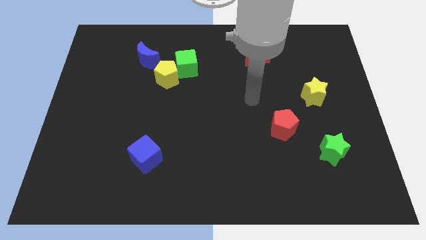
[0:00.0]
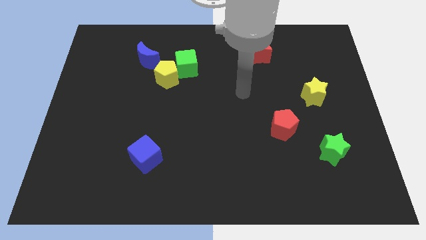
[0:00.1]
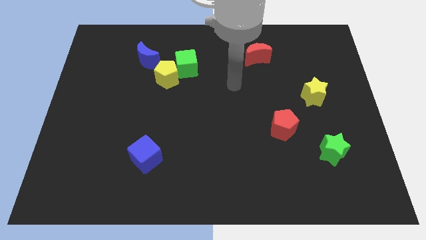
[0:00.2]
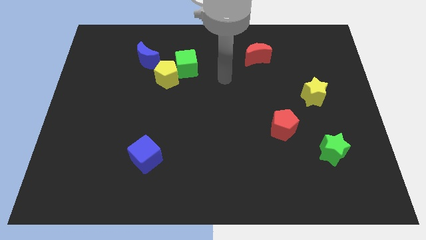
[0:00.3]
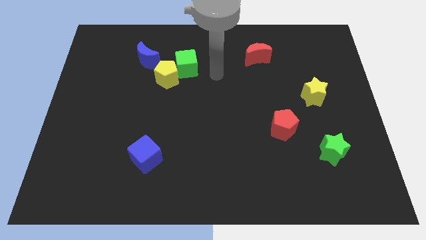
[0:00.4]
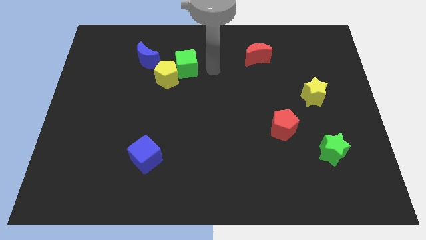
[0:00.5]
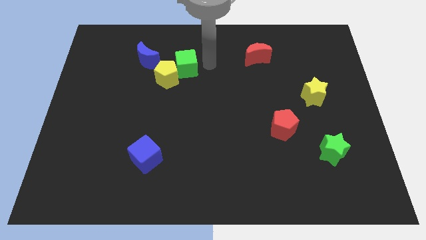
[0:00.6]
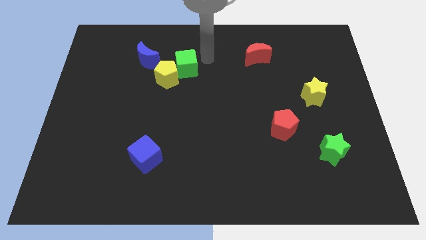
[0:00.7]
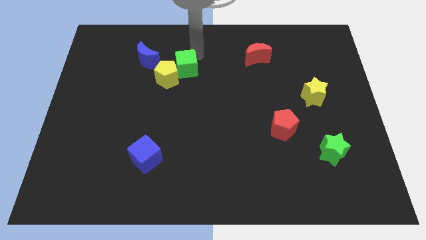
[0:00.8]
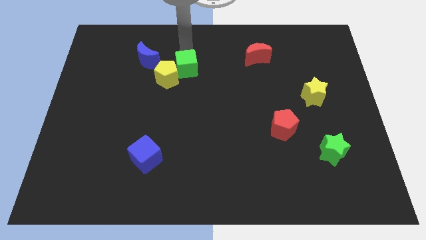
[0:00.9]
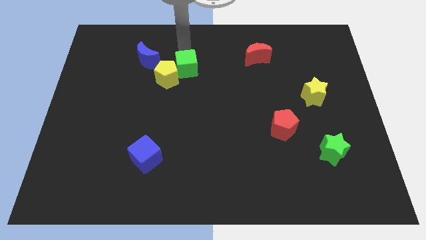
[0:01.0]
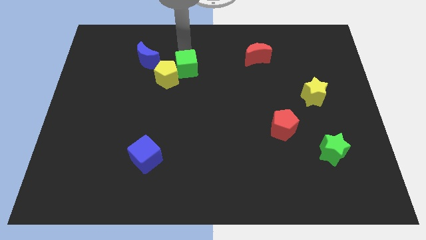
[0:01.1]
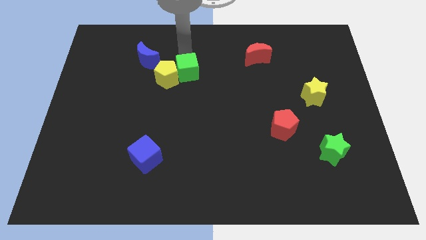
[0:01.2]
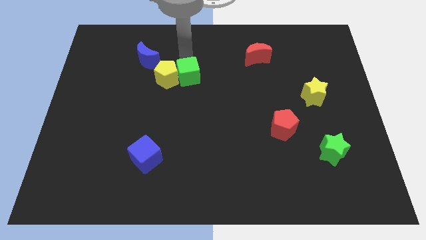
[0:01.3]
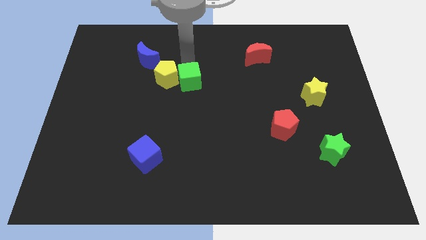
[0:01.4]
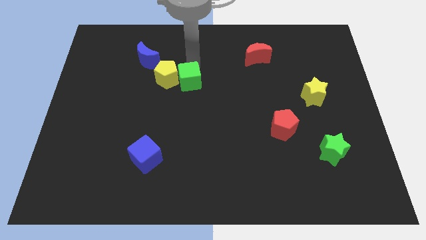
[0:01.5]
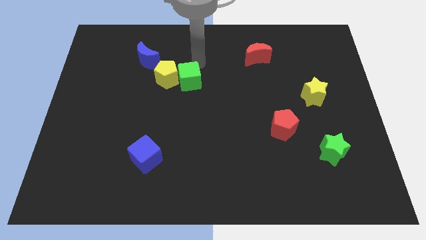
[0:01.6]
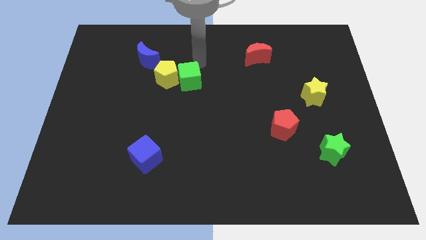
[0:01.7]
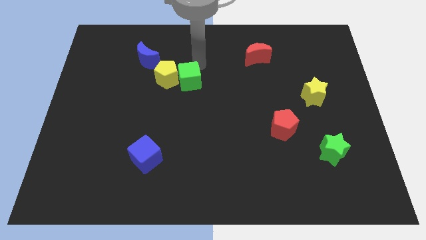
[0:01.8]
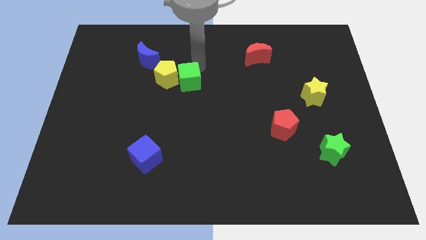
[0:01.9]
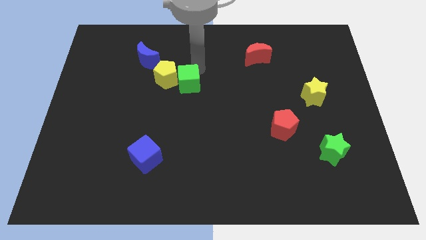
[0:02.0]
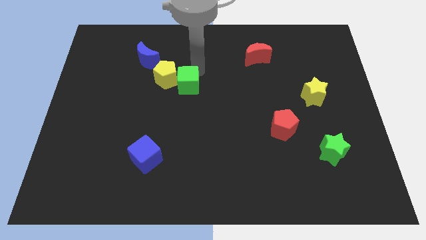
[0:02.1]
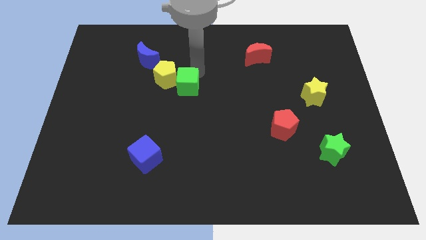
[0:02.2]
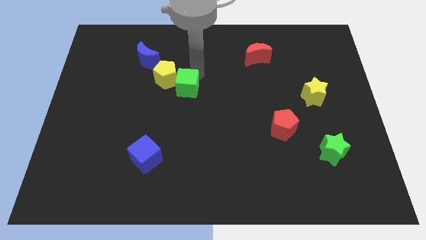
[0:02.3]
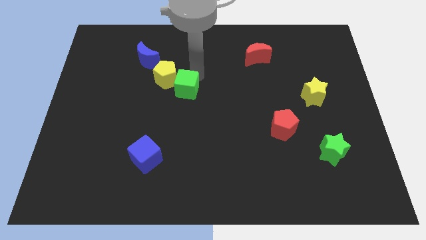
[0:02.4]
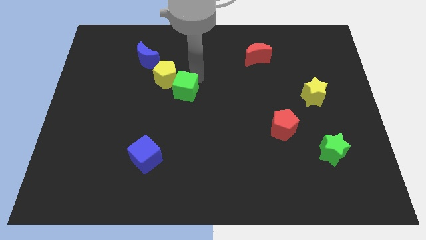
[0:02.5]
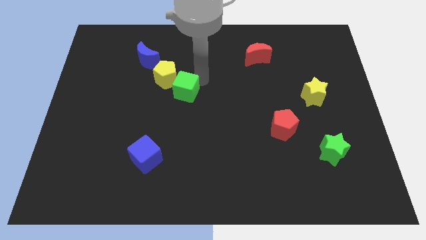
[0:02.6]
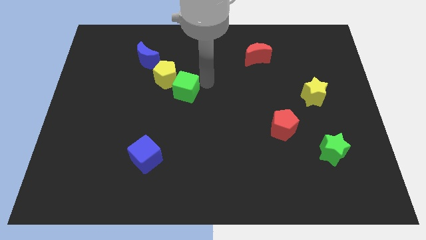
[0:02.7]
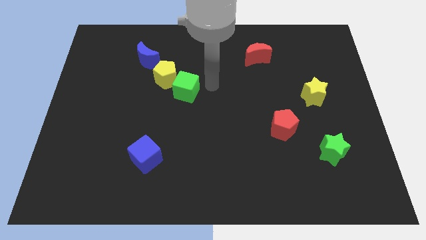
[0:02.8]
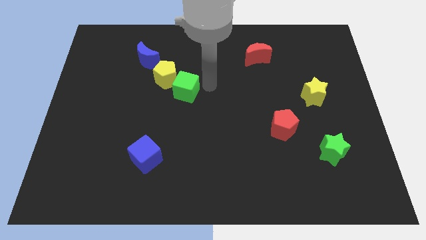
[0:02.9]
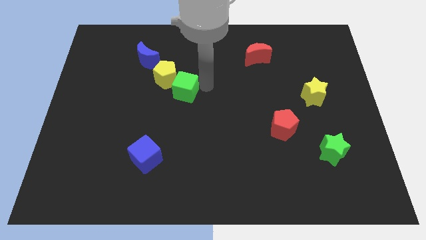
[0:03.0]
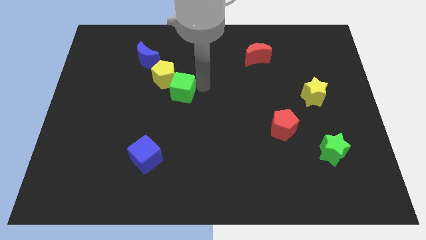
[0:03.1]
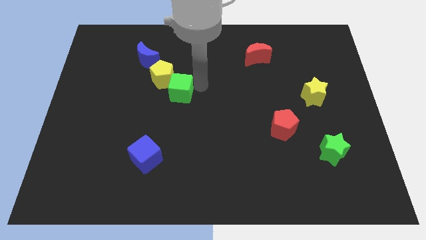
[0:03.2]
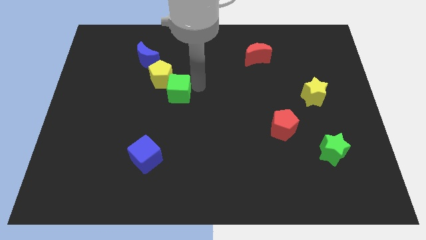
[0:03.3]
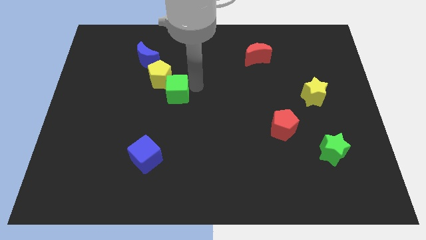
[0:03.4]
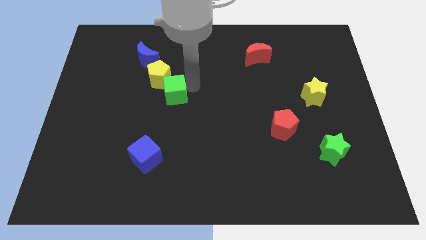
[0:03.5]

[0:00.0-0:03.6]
push the green cube slightly down and left

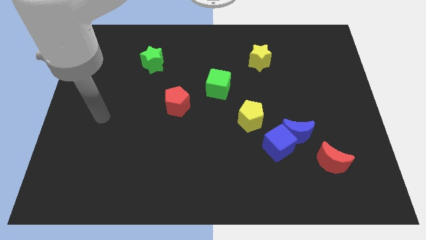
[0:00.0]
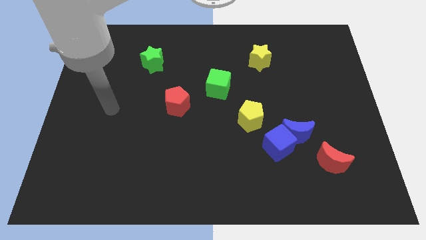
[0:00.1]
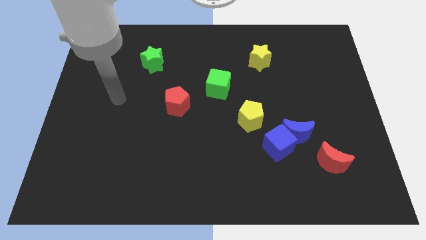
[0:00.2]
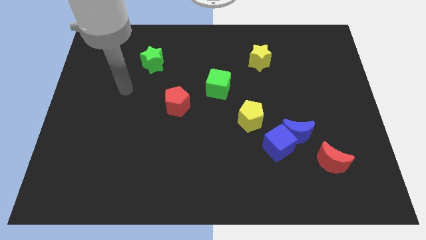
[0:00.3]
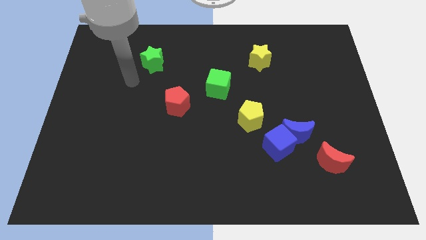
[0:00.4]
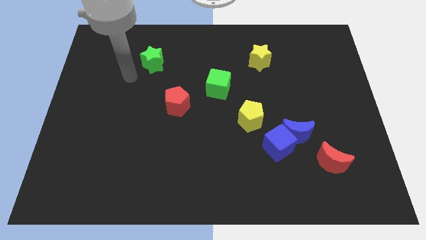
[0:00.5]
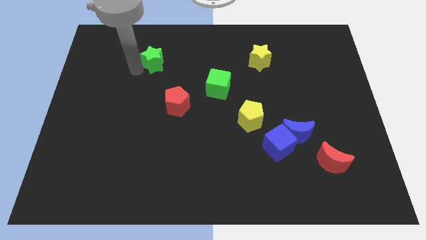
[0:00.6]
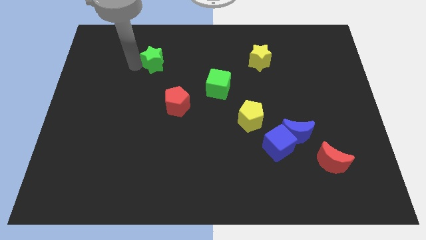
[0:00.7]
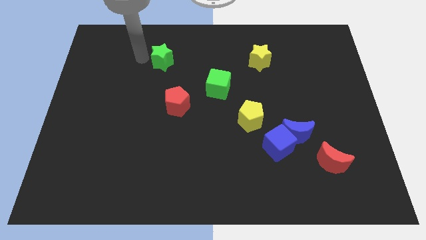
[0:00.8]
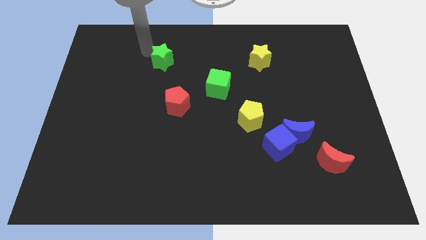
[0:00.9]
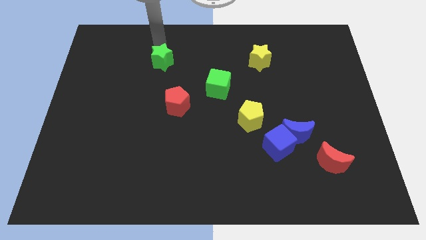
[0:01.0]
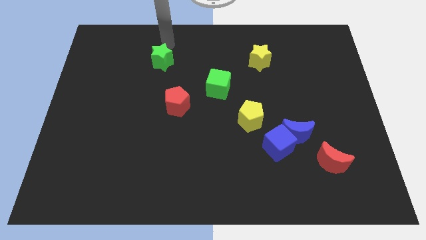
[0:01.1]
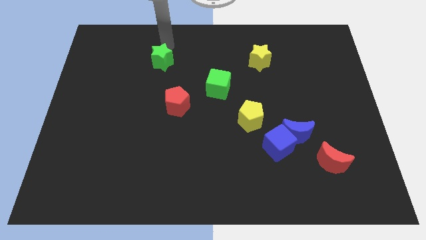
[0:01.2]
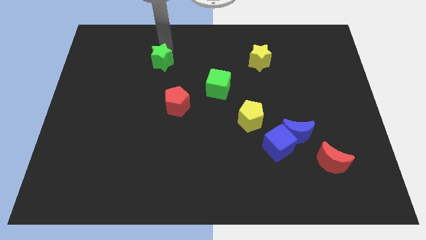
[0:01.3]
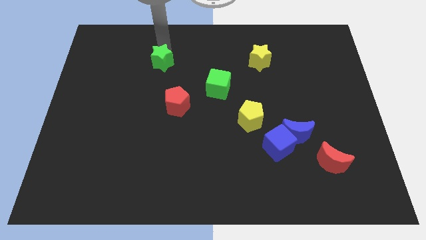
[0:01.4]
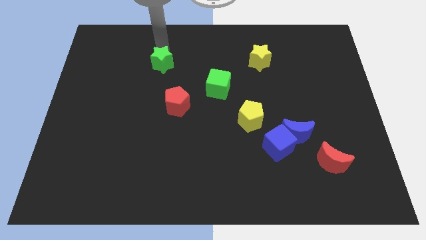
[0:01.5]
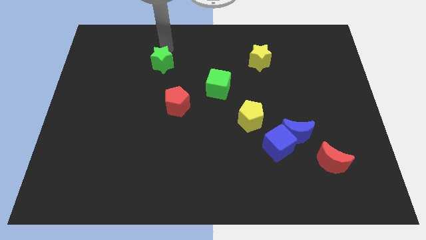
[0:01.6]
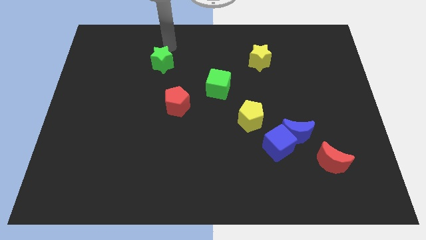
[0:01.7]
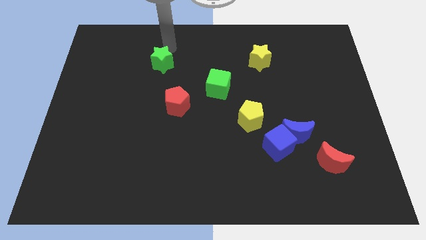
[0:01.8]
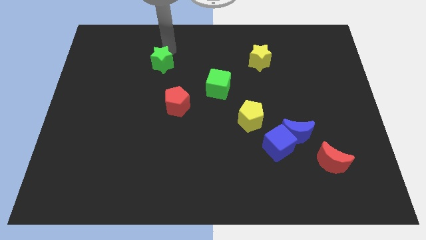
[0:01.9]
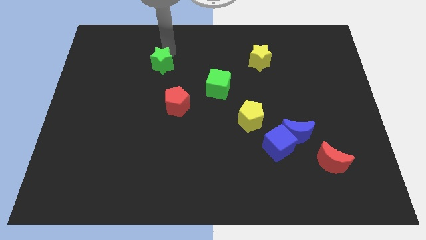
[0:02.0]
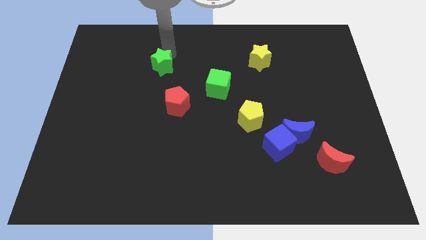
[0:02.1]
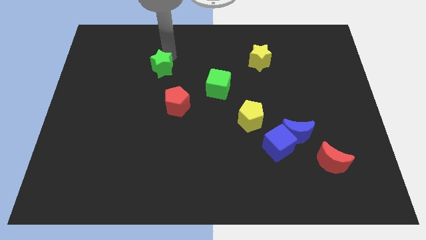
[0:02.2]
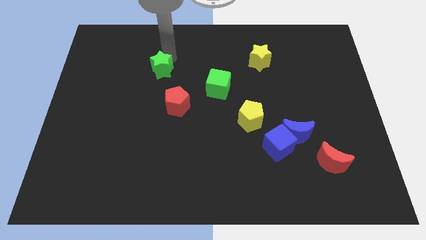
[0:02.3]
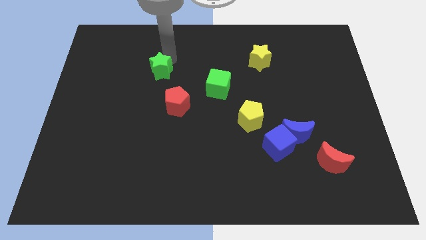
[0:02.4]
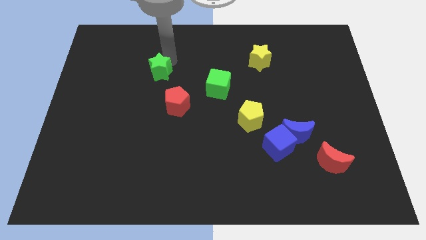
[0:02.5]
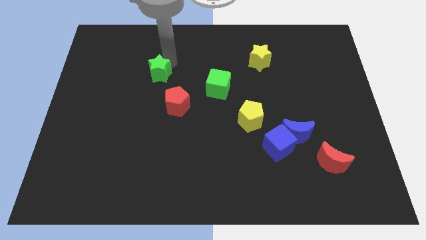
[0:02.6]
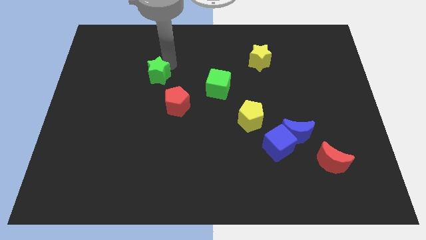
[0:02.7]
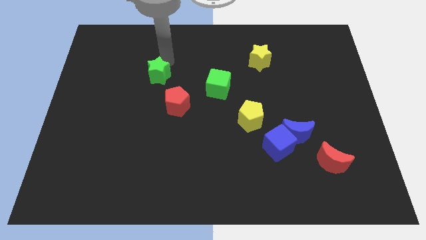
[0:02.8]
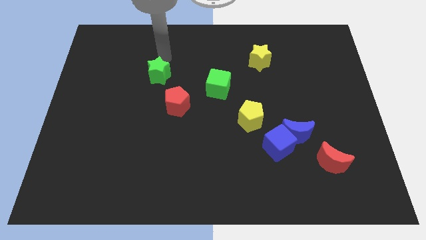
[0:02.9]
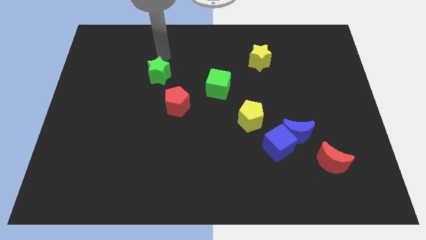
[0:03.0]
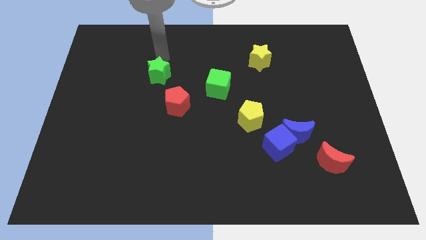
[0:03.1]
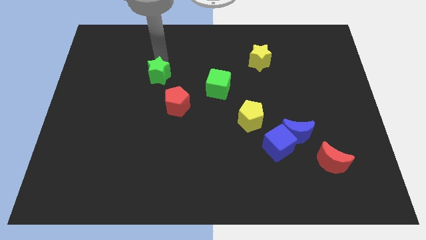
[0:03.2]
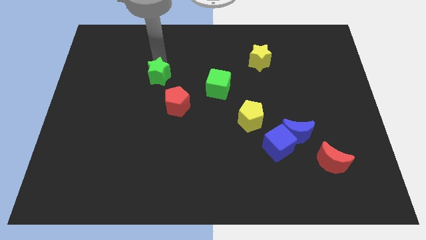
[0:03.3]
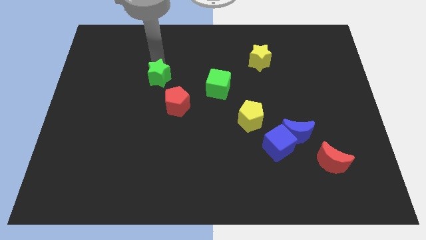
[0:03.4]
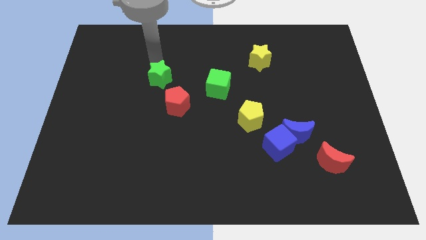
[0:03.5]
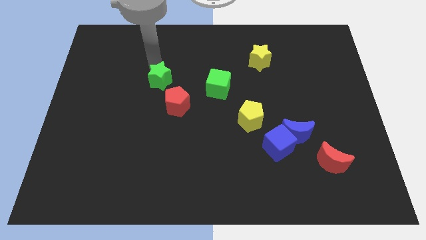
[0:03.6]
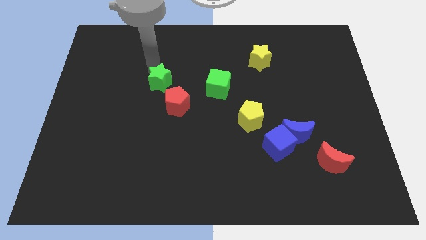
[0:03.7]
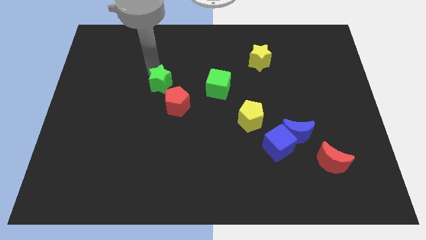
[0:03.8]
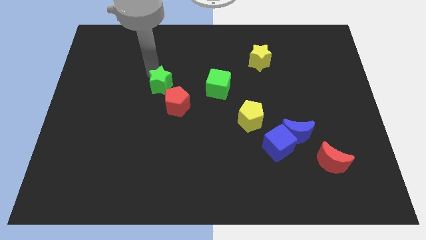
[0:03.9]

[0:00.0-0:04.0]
slightly move the green star down

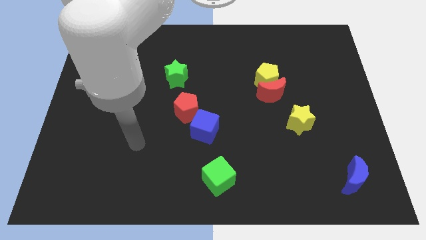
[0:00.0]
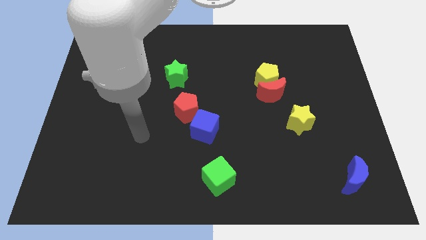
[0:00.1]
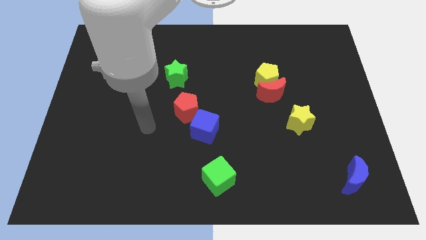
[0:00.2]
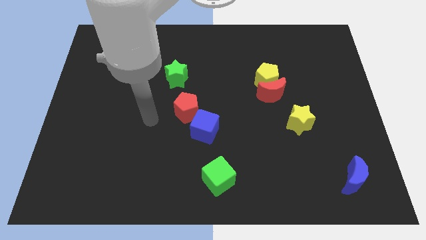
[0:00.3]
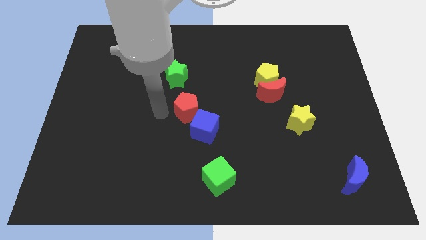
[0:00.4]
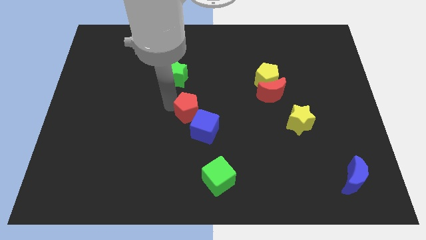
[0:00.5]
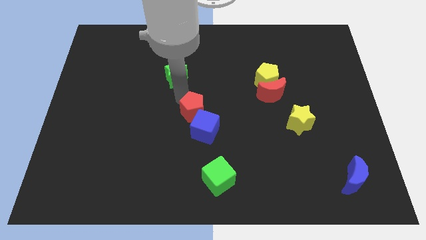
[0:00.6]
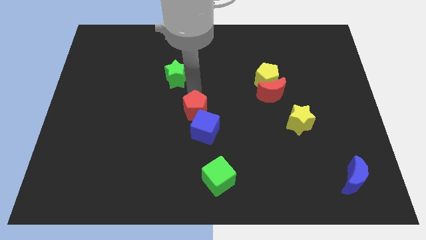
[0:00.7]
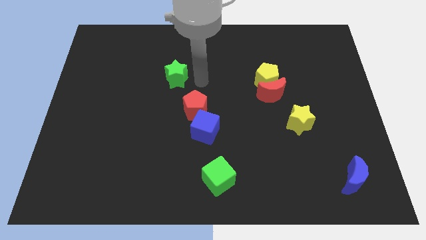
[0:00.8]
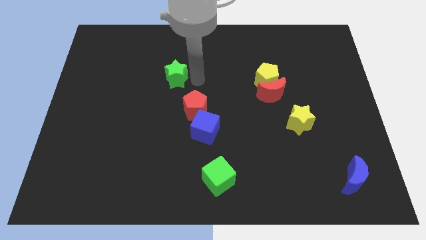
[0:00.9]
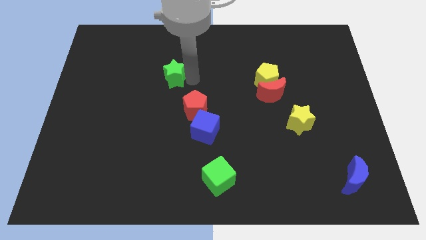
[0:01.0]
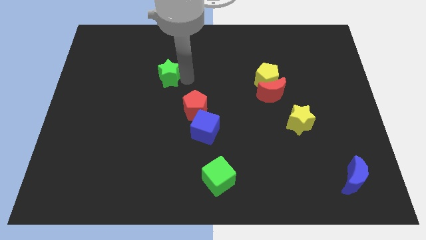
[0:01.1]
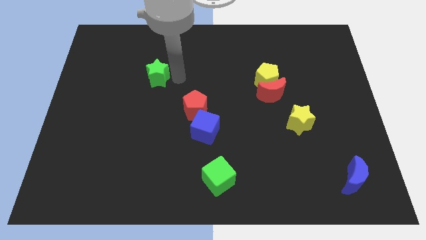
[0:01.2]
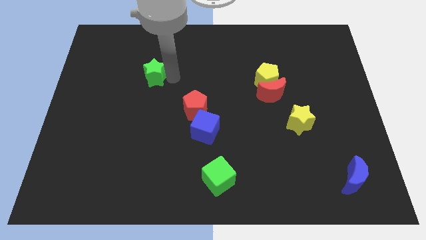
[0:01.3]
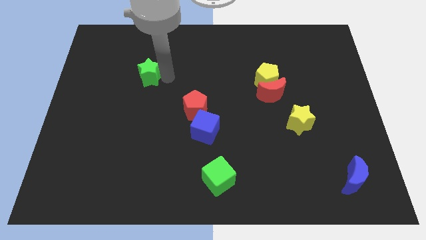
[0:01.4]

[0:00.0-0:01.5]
slightly slide the green star to the left
